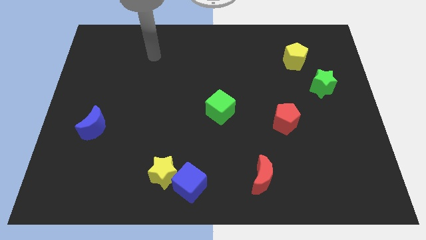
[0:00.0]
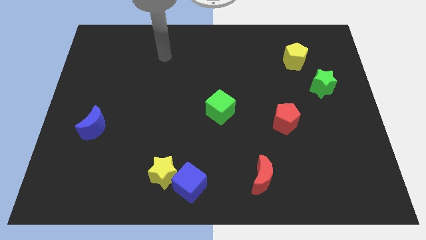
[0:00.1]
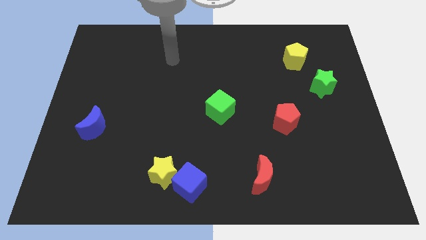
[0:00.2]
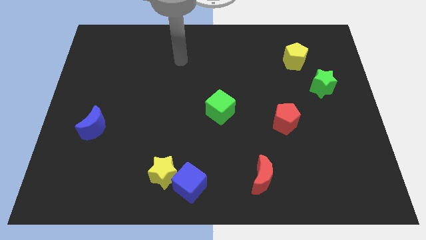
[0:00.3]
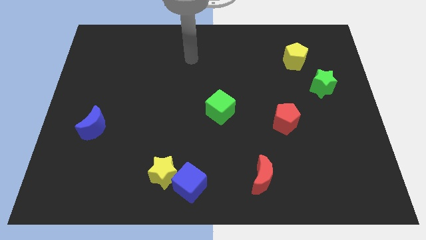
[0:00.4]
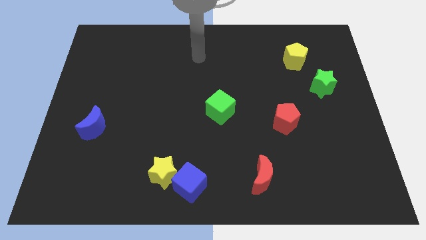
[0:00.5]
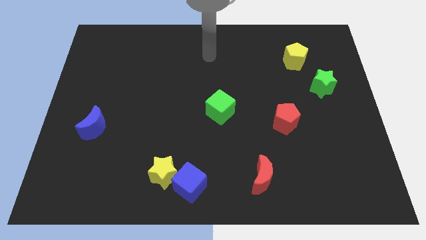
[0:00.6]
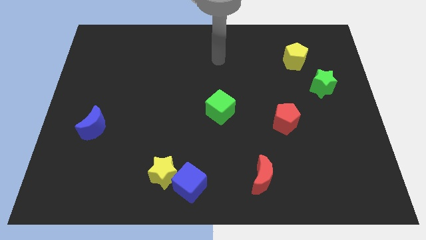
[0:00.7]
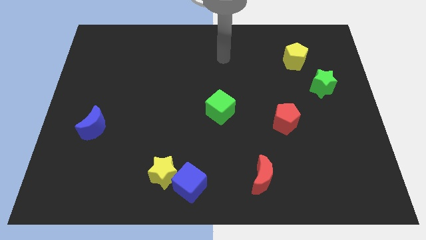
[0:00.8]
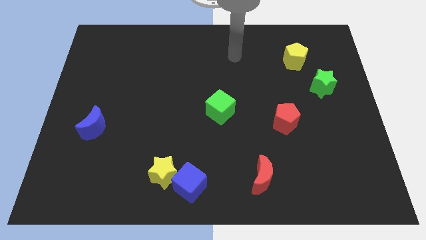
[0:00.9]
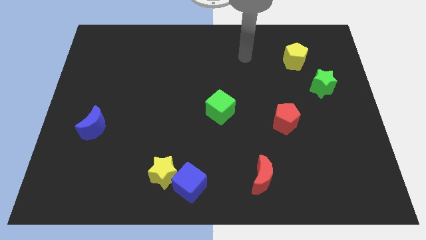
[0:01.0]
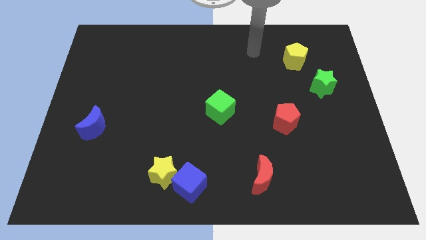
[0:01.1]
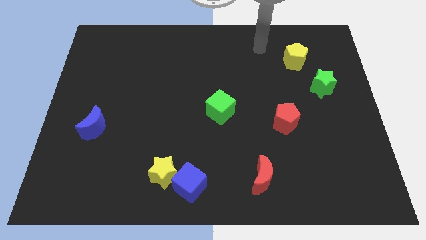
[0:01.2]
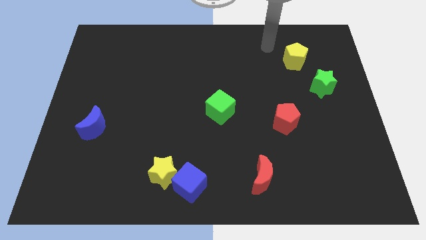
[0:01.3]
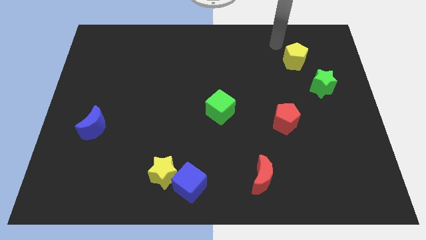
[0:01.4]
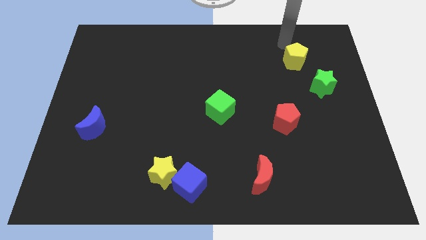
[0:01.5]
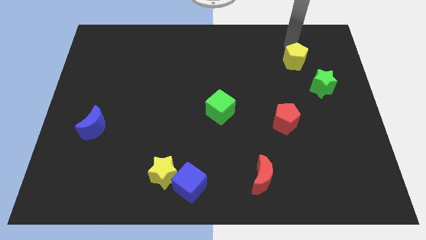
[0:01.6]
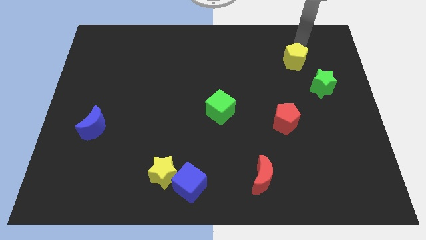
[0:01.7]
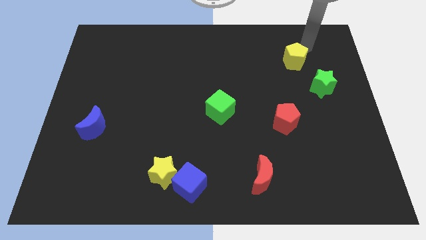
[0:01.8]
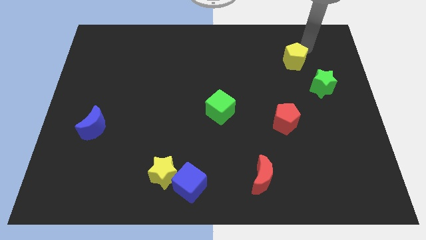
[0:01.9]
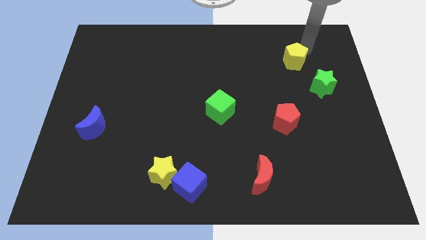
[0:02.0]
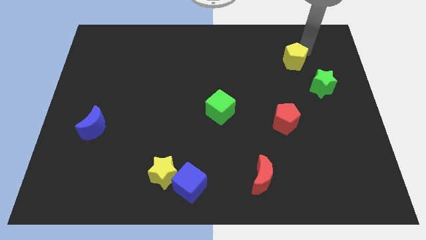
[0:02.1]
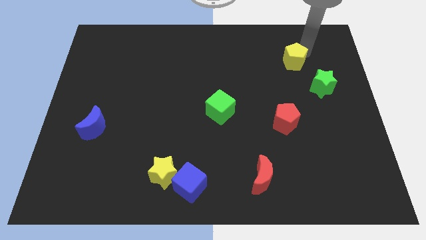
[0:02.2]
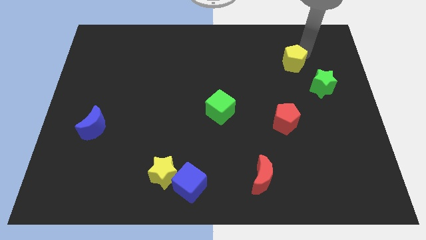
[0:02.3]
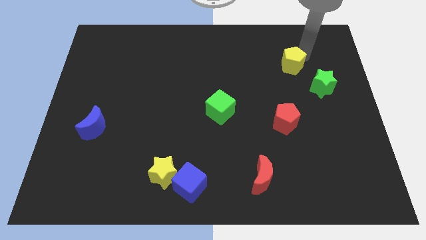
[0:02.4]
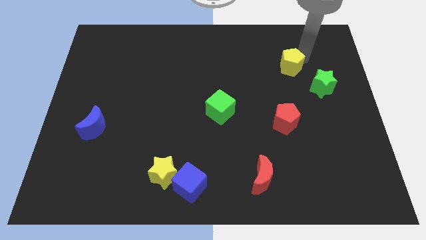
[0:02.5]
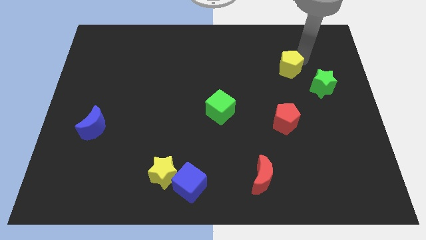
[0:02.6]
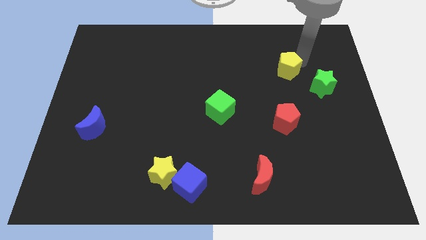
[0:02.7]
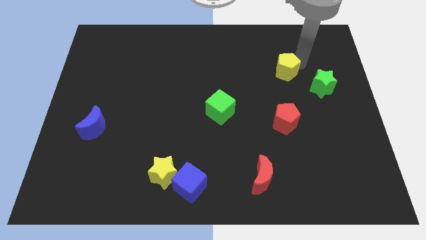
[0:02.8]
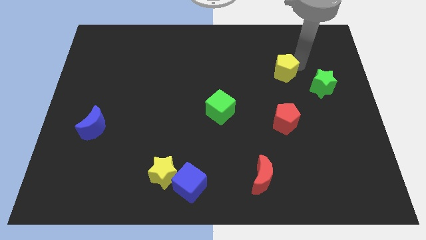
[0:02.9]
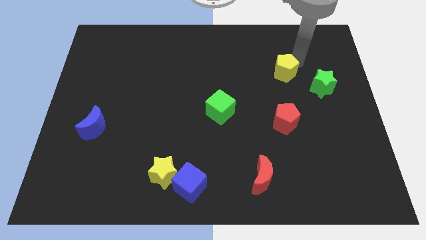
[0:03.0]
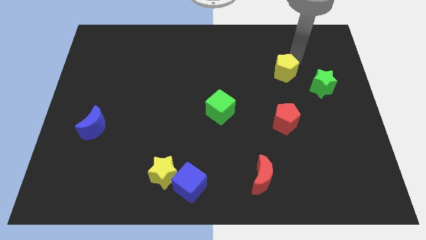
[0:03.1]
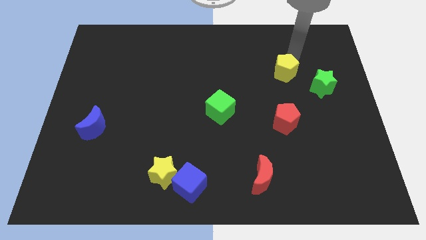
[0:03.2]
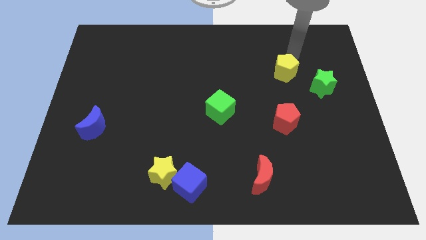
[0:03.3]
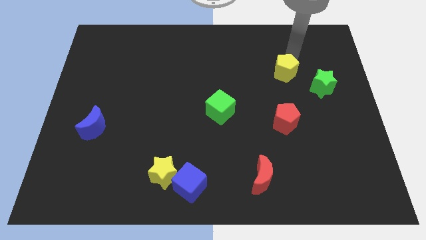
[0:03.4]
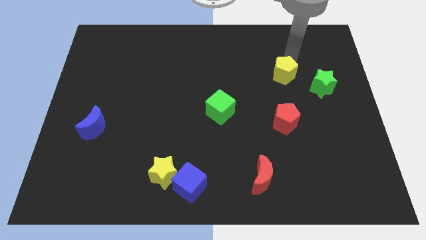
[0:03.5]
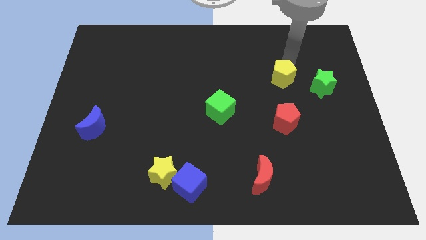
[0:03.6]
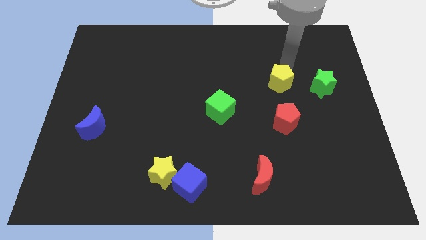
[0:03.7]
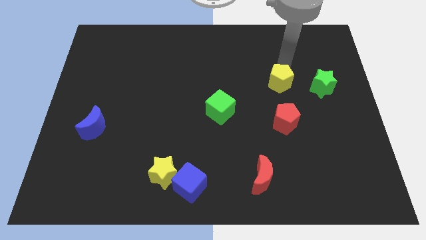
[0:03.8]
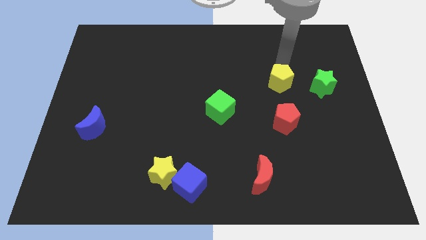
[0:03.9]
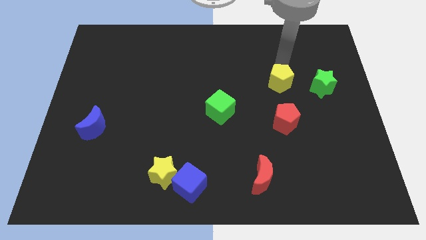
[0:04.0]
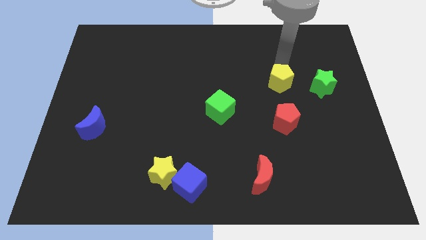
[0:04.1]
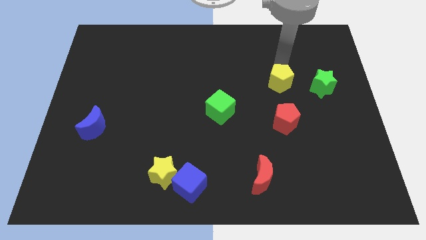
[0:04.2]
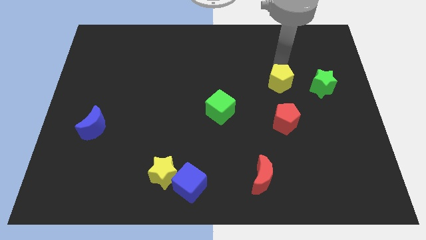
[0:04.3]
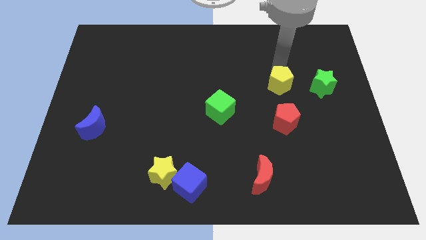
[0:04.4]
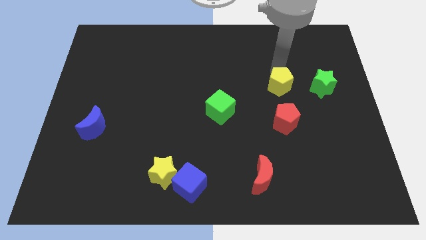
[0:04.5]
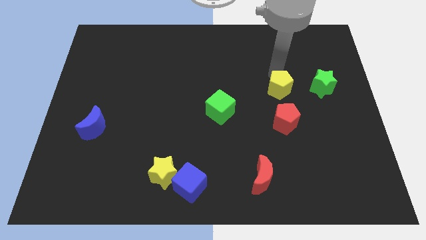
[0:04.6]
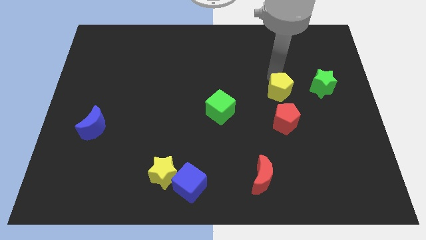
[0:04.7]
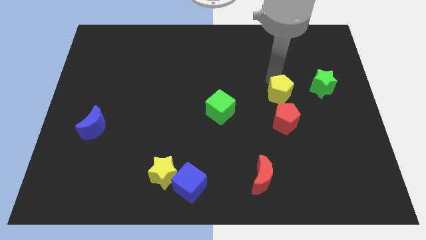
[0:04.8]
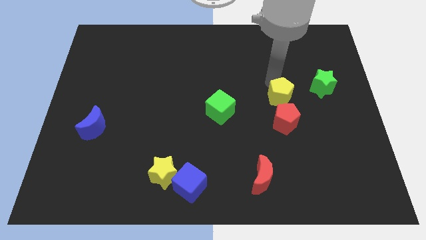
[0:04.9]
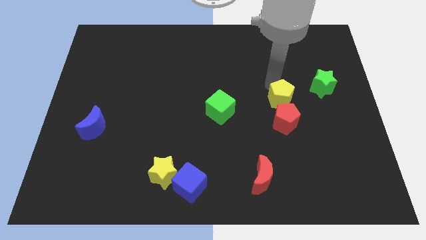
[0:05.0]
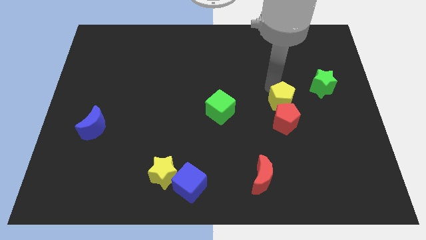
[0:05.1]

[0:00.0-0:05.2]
slide the yellow pentagon to the red pentagon

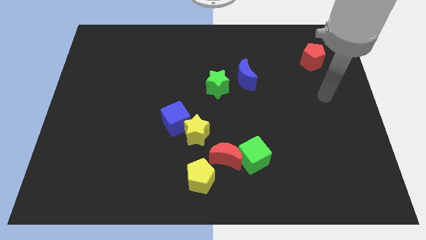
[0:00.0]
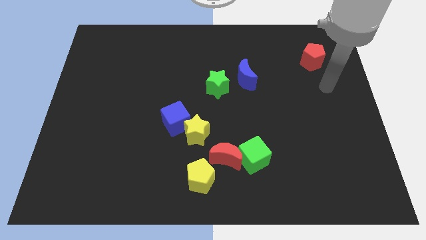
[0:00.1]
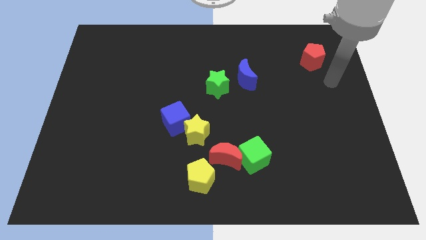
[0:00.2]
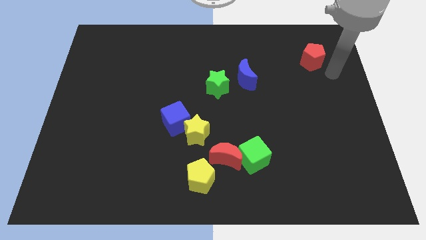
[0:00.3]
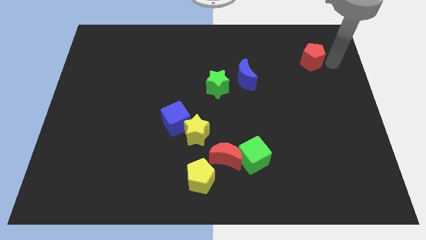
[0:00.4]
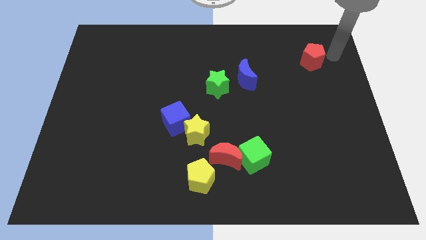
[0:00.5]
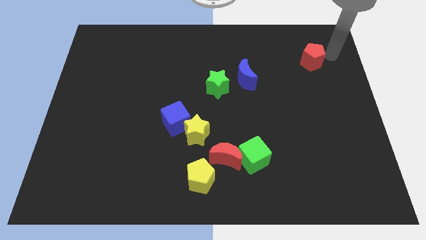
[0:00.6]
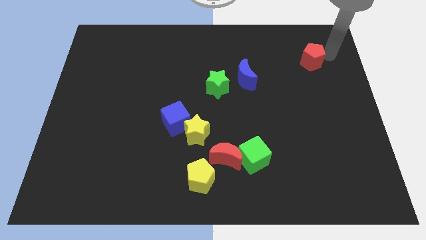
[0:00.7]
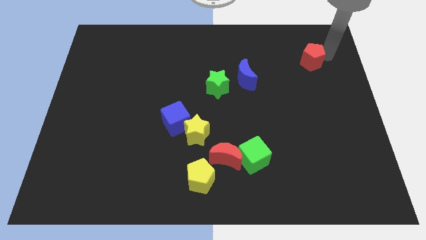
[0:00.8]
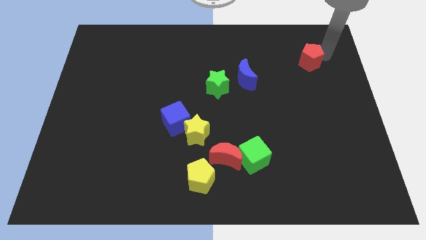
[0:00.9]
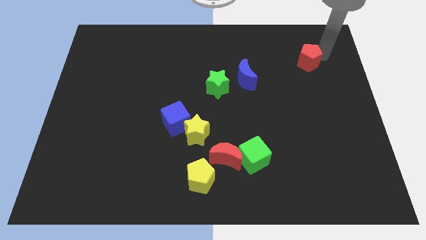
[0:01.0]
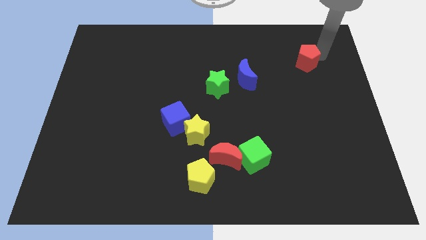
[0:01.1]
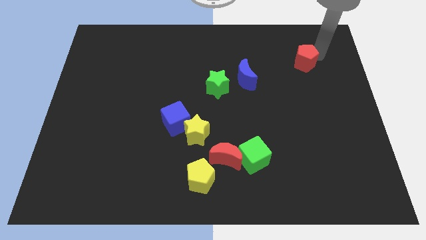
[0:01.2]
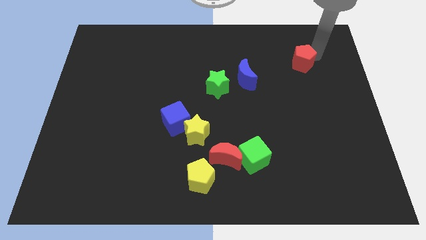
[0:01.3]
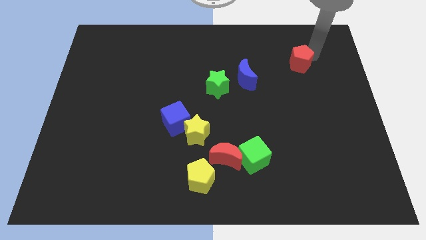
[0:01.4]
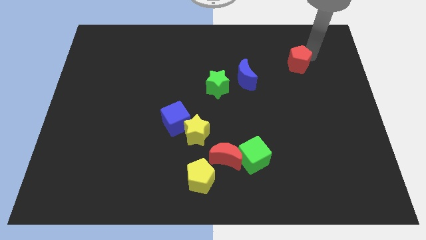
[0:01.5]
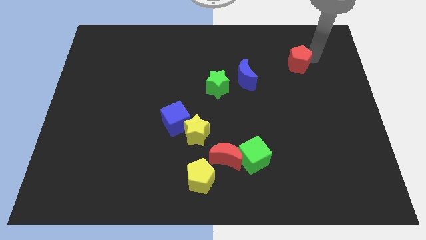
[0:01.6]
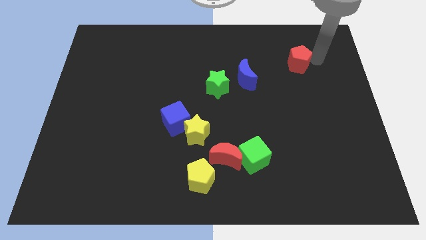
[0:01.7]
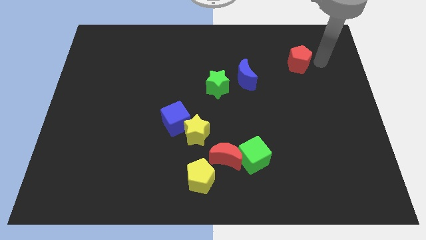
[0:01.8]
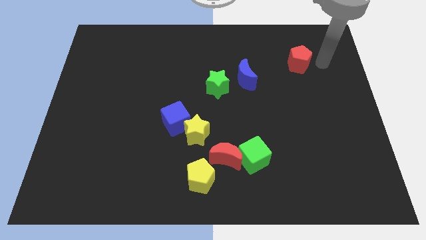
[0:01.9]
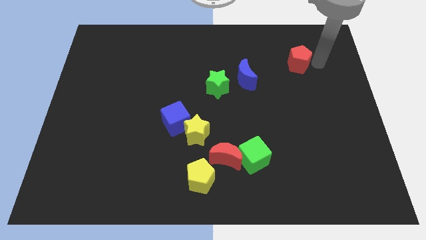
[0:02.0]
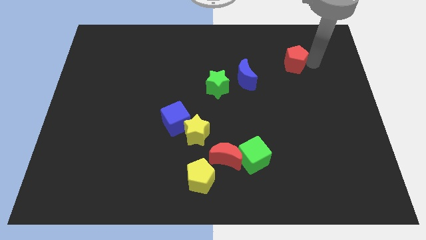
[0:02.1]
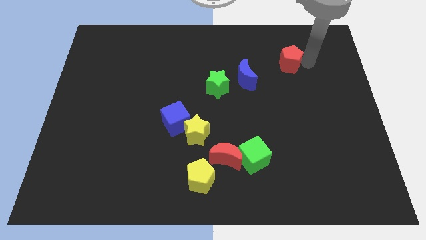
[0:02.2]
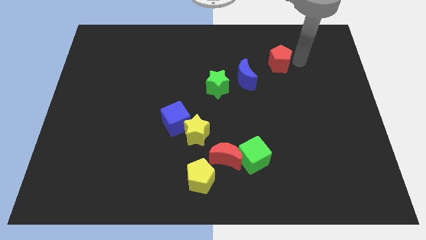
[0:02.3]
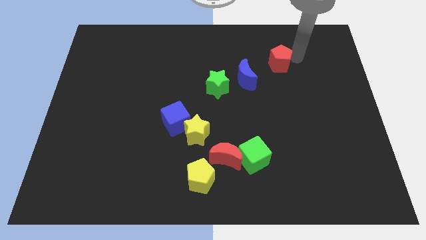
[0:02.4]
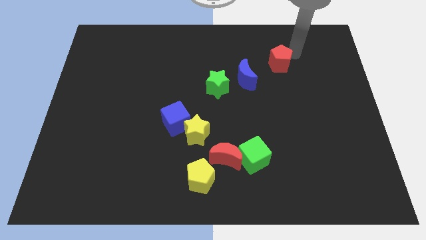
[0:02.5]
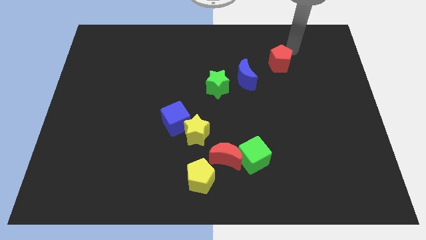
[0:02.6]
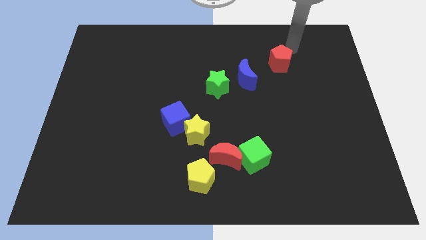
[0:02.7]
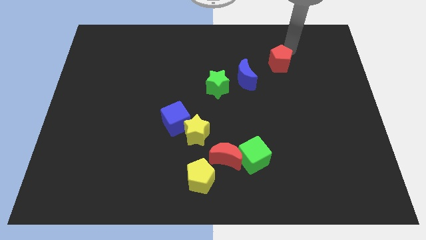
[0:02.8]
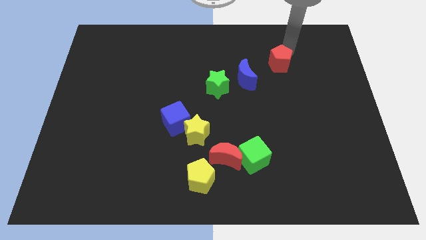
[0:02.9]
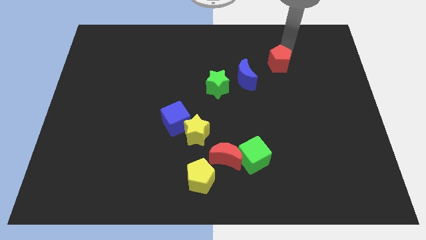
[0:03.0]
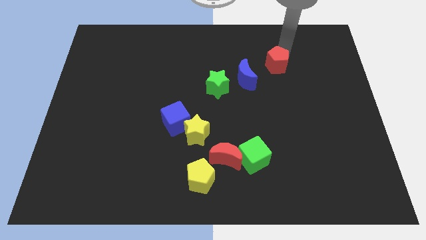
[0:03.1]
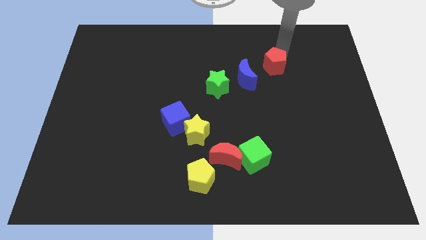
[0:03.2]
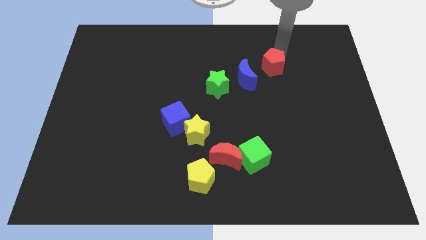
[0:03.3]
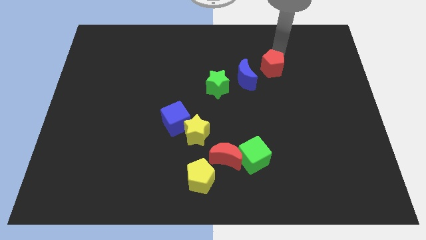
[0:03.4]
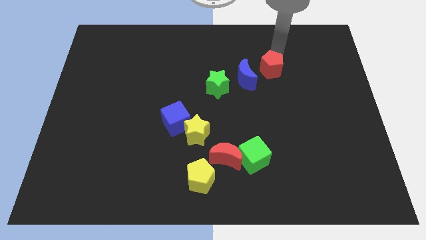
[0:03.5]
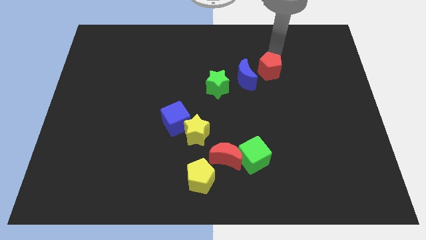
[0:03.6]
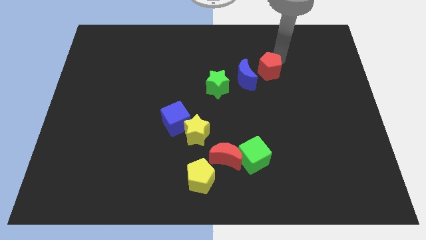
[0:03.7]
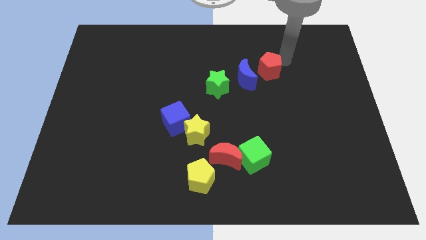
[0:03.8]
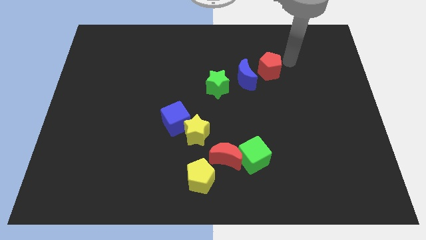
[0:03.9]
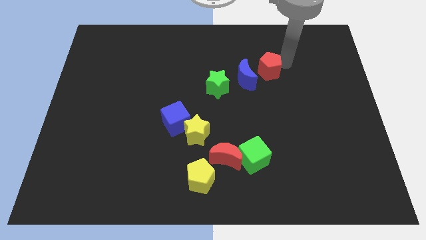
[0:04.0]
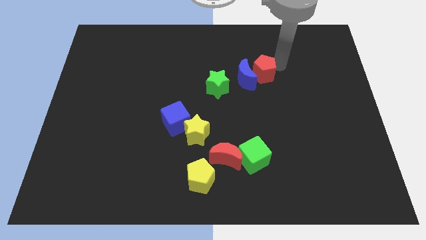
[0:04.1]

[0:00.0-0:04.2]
slide the red pentagon to the blue moon
